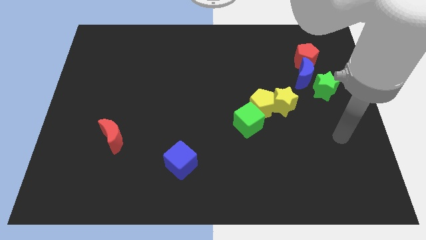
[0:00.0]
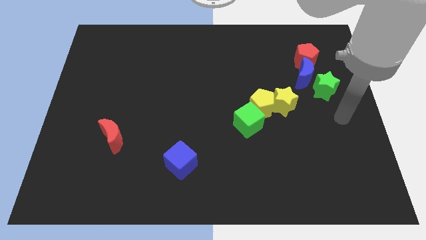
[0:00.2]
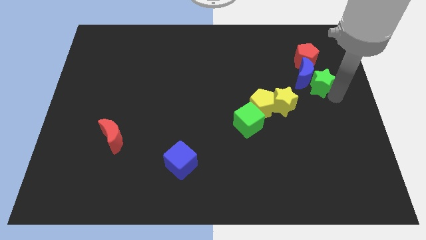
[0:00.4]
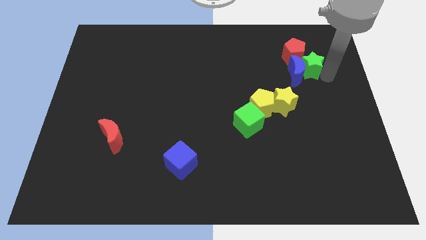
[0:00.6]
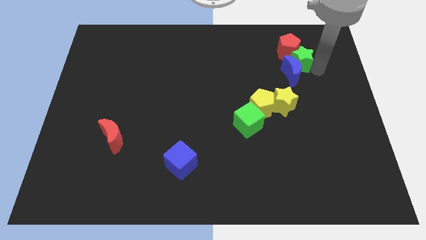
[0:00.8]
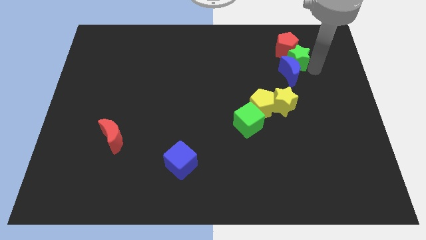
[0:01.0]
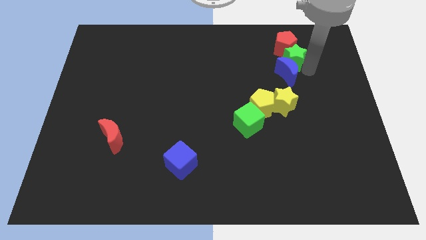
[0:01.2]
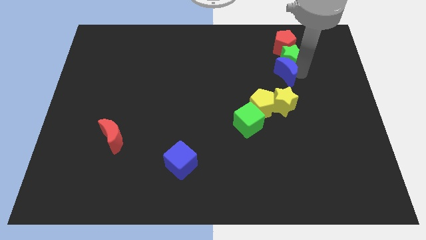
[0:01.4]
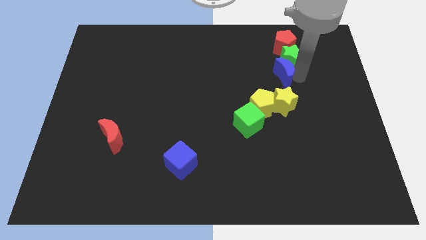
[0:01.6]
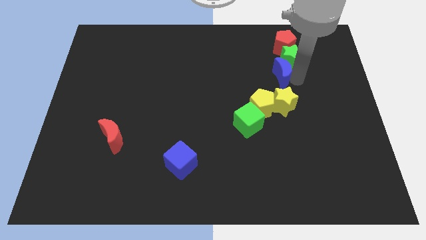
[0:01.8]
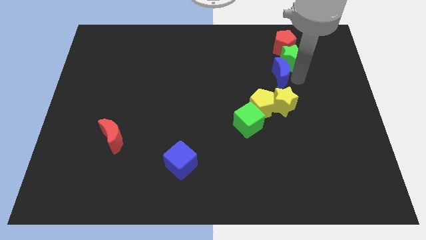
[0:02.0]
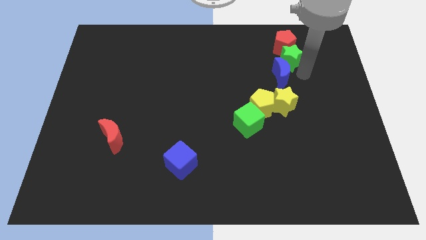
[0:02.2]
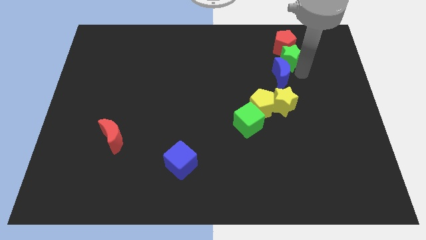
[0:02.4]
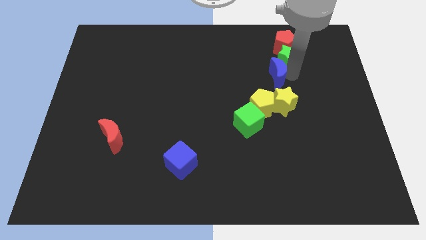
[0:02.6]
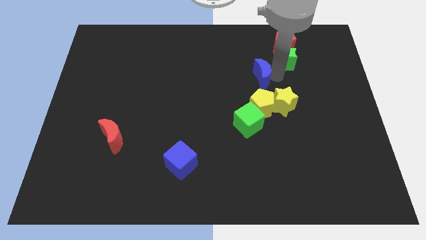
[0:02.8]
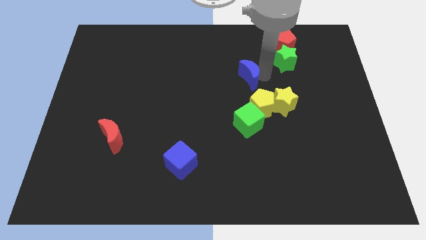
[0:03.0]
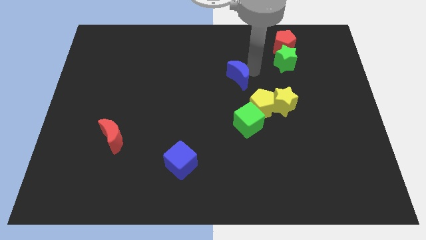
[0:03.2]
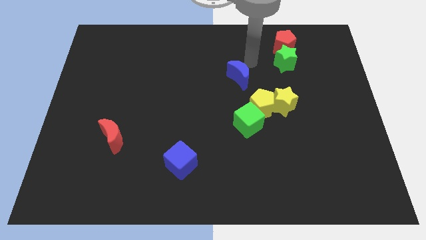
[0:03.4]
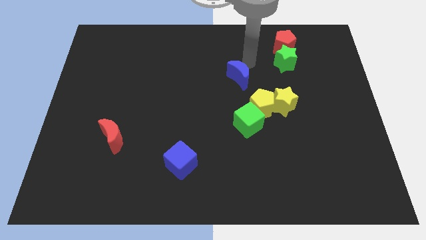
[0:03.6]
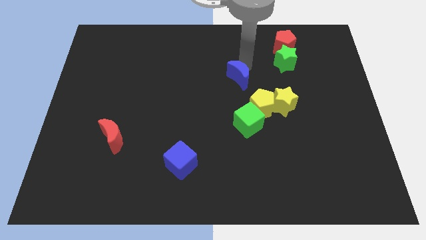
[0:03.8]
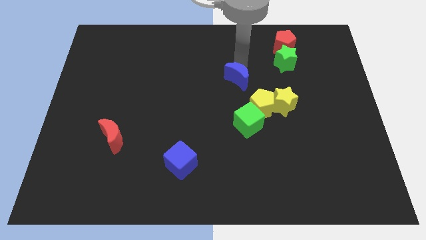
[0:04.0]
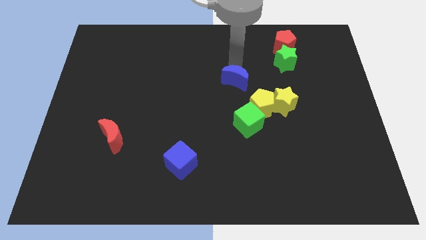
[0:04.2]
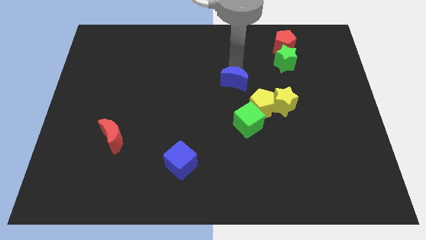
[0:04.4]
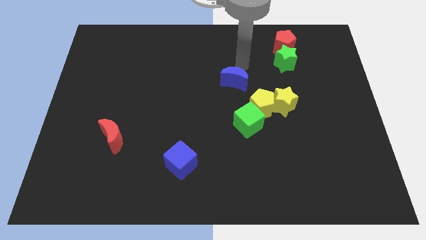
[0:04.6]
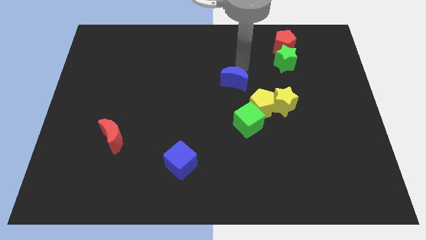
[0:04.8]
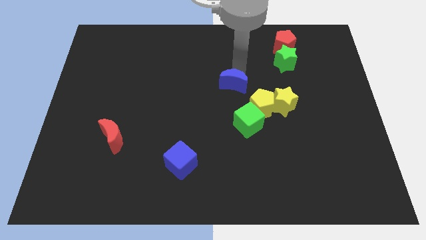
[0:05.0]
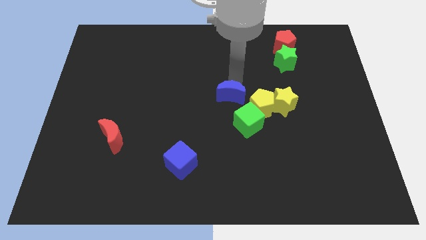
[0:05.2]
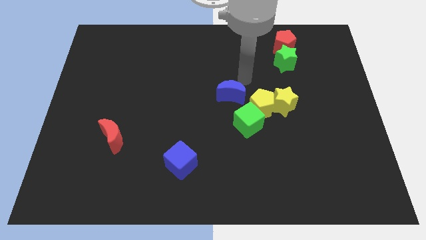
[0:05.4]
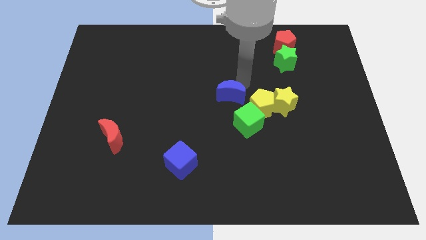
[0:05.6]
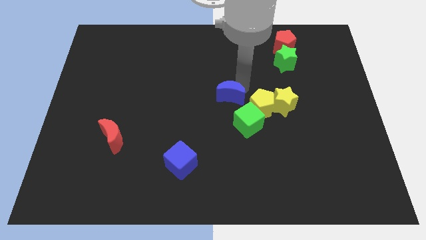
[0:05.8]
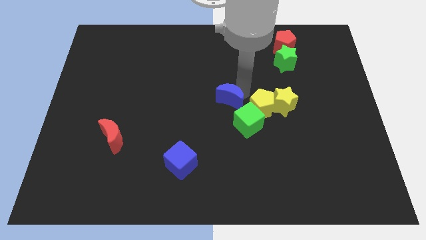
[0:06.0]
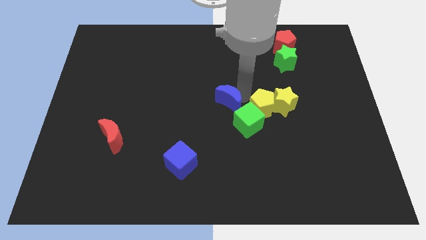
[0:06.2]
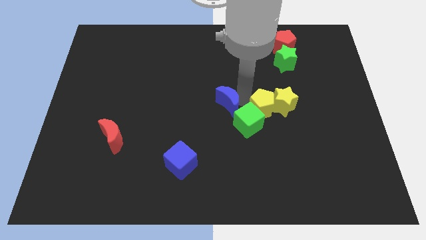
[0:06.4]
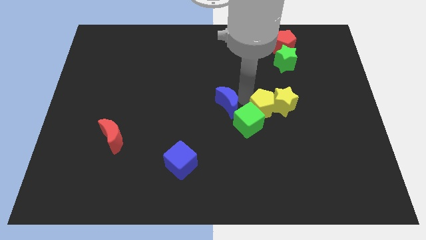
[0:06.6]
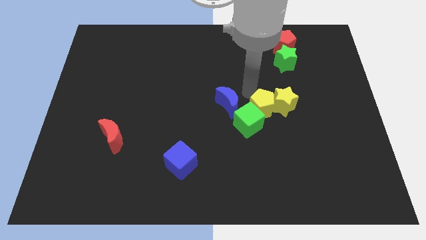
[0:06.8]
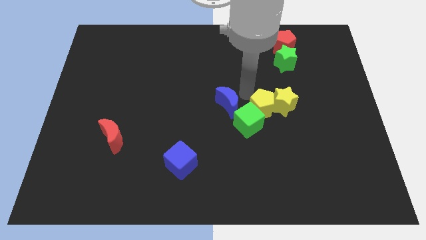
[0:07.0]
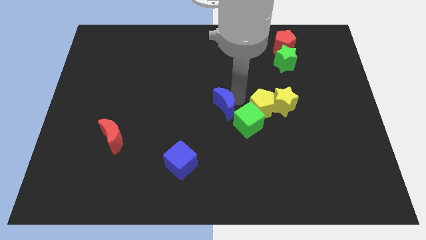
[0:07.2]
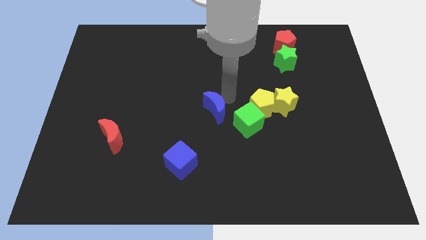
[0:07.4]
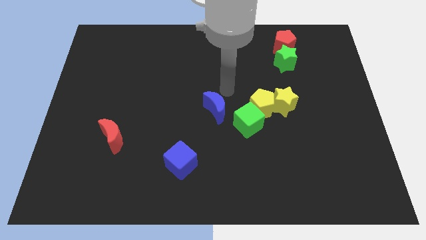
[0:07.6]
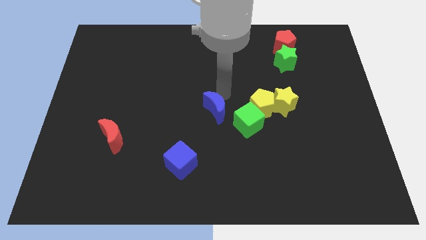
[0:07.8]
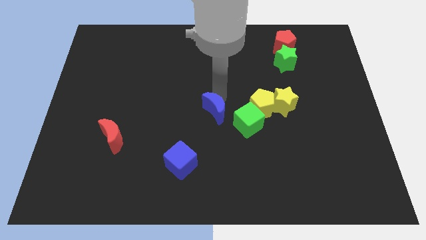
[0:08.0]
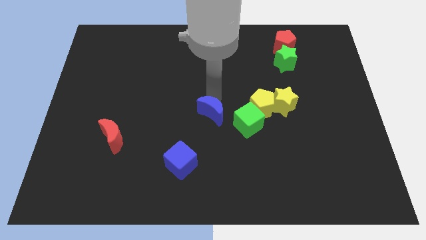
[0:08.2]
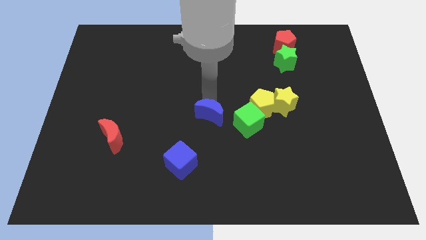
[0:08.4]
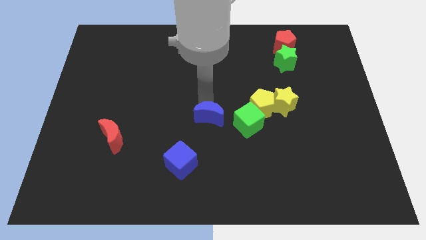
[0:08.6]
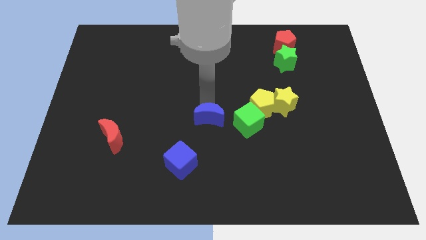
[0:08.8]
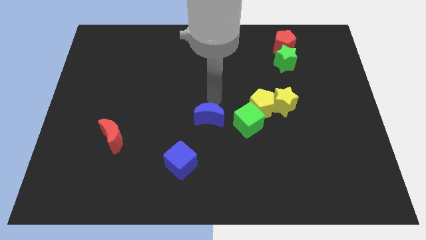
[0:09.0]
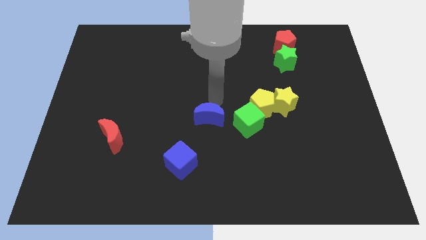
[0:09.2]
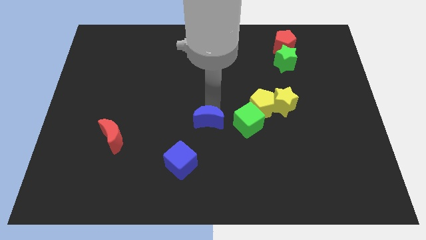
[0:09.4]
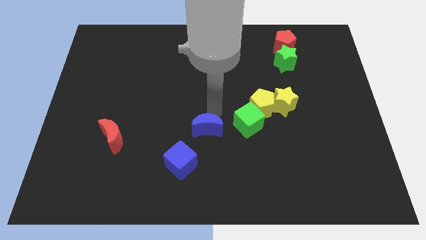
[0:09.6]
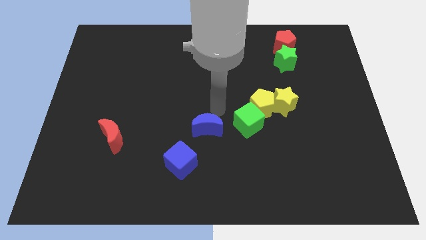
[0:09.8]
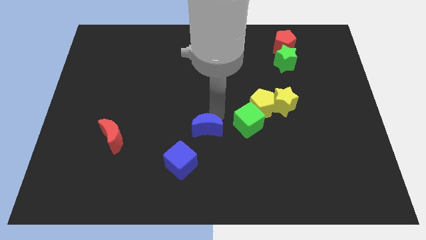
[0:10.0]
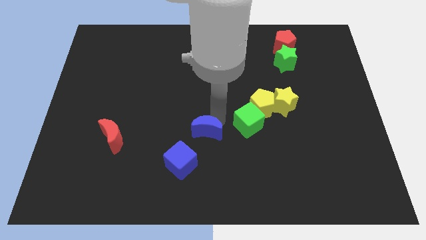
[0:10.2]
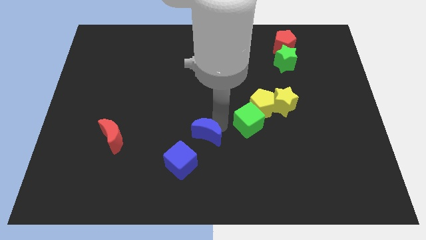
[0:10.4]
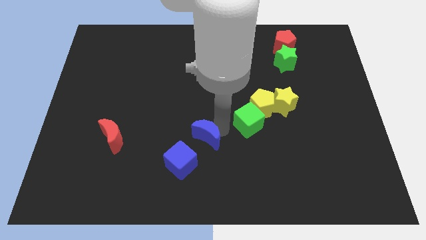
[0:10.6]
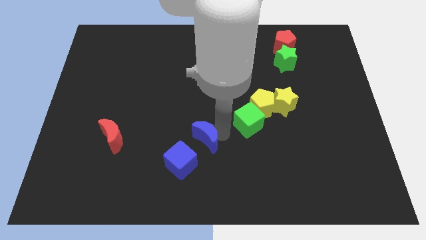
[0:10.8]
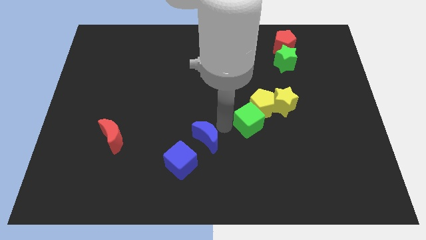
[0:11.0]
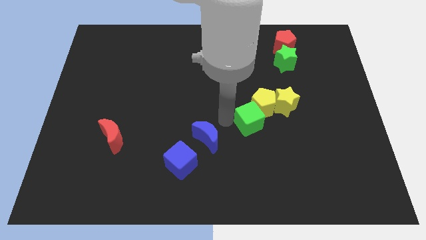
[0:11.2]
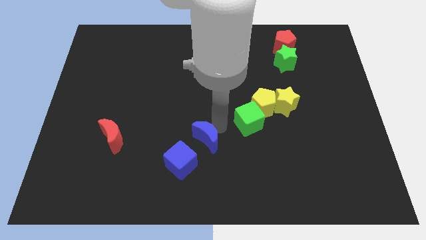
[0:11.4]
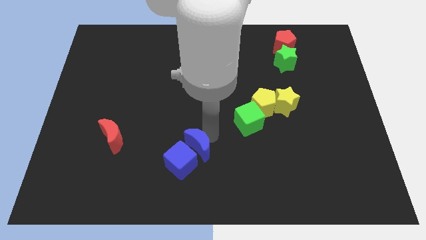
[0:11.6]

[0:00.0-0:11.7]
move the blue moon next to the blue cube

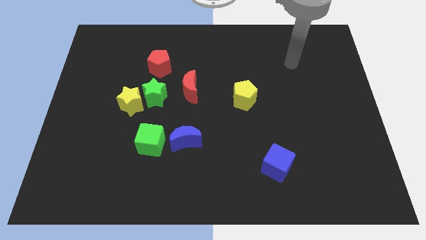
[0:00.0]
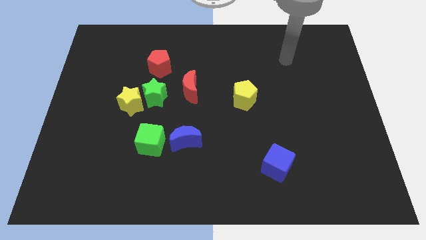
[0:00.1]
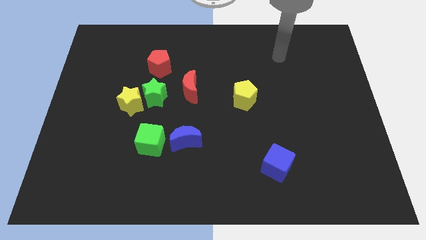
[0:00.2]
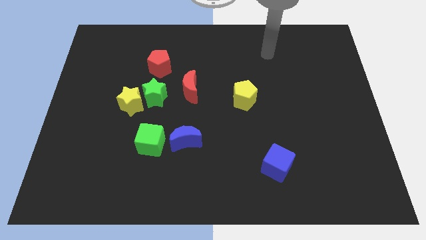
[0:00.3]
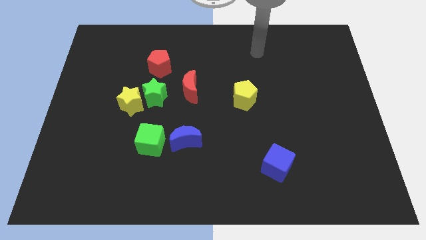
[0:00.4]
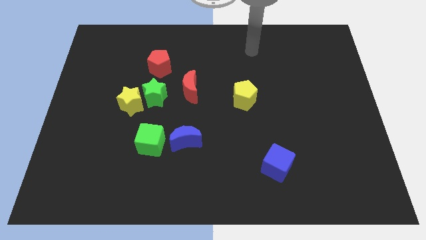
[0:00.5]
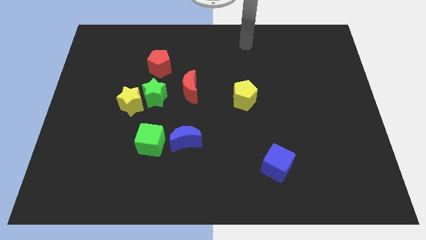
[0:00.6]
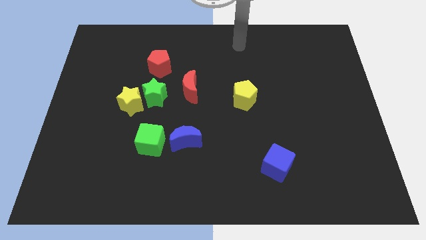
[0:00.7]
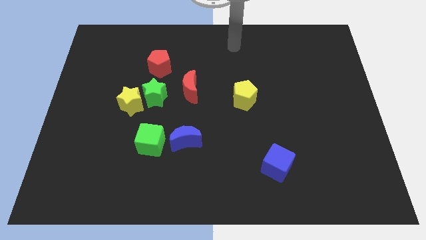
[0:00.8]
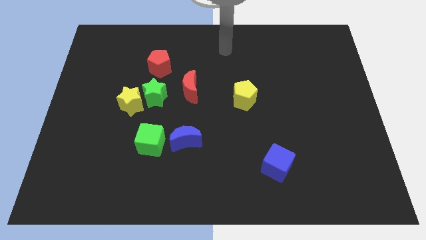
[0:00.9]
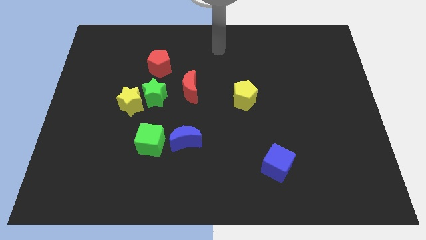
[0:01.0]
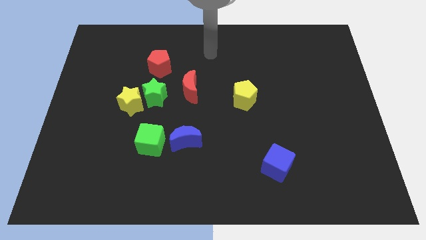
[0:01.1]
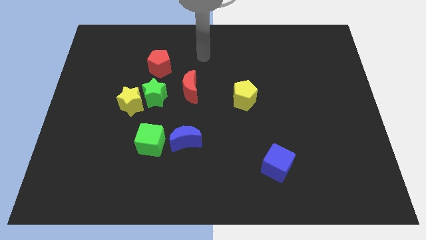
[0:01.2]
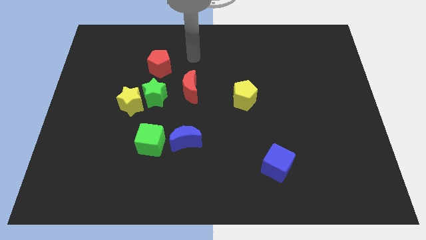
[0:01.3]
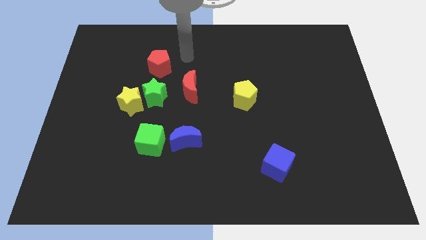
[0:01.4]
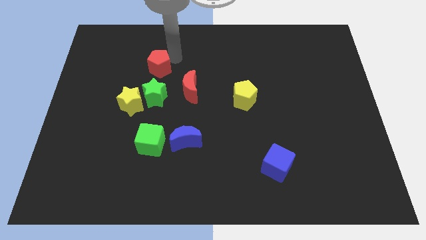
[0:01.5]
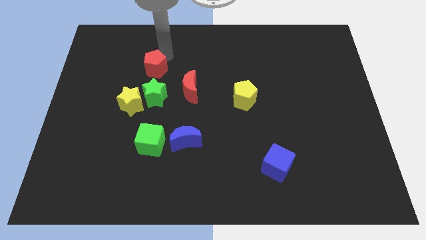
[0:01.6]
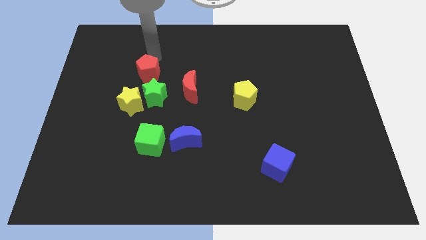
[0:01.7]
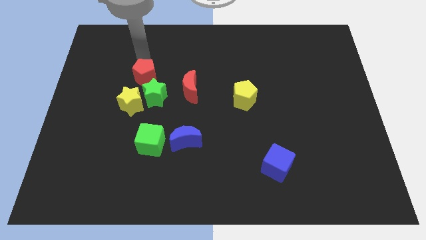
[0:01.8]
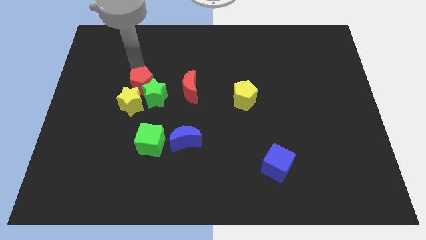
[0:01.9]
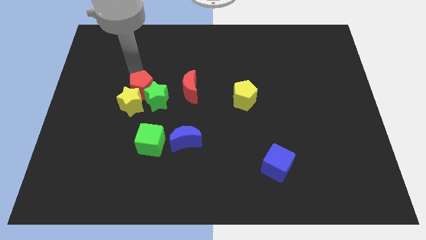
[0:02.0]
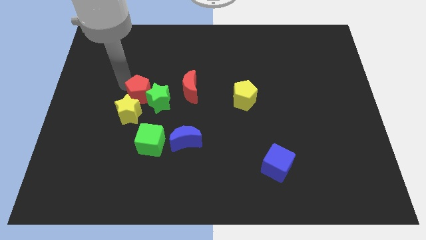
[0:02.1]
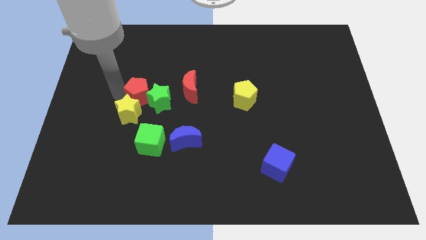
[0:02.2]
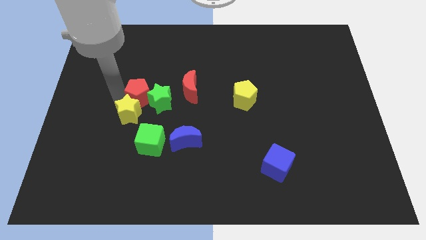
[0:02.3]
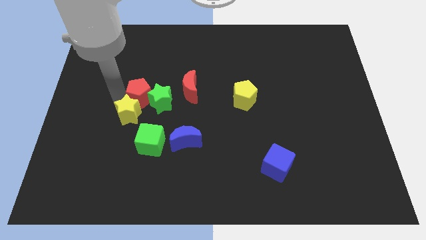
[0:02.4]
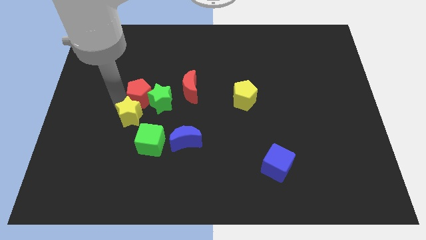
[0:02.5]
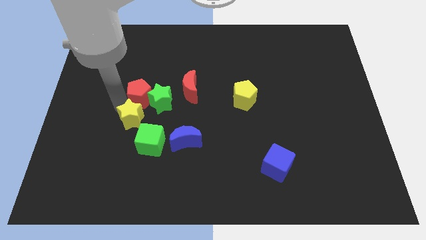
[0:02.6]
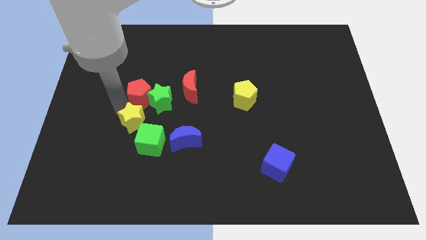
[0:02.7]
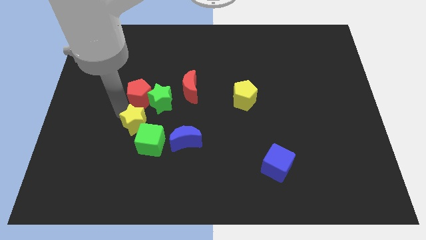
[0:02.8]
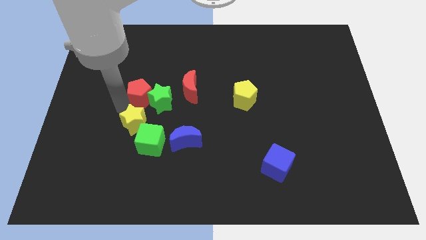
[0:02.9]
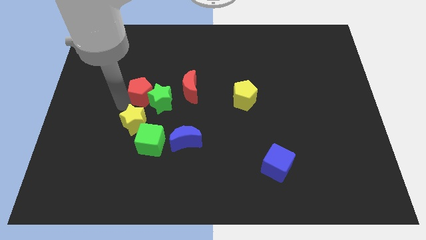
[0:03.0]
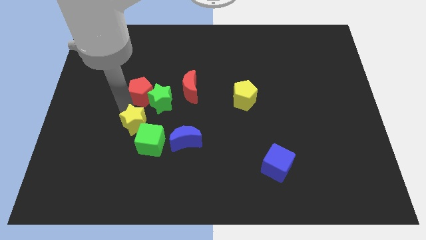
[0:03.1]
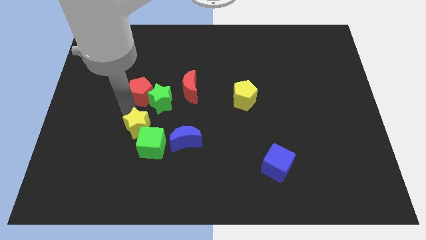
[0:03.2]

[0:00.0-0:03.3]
move the yellow star next to the green cube
